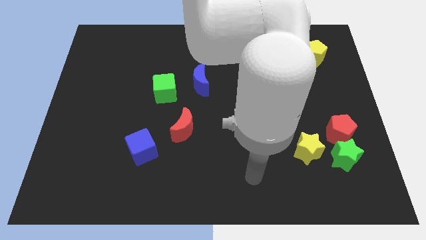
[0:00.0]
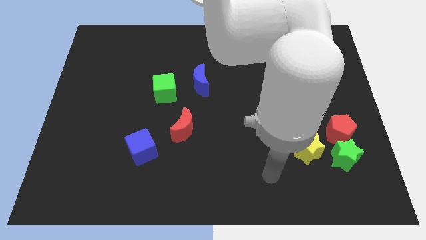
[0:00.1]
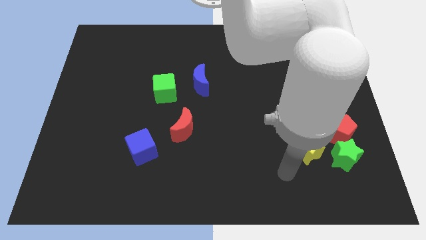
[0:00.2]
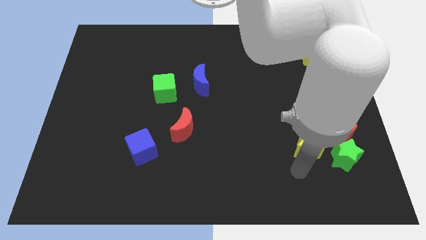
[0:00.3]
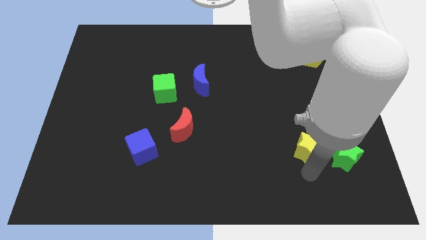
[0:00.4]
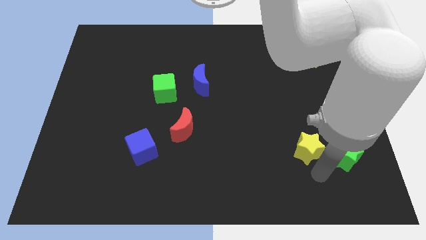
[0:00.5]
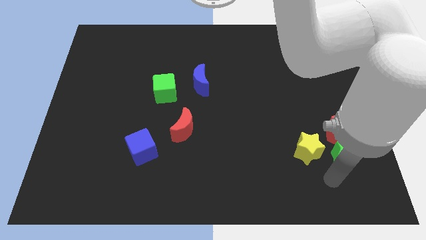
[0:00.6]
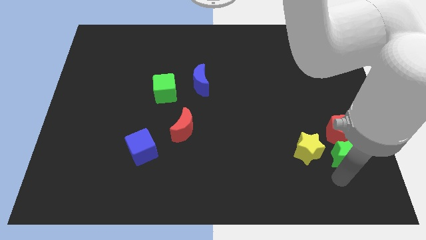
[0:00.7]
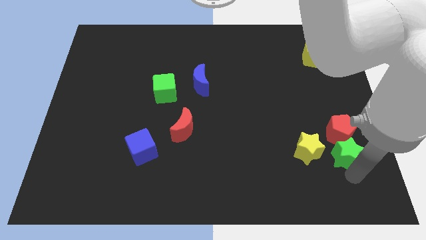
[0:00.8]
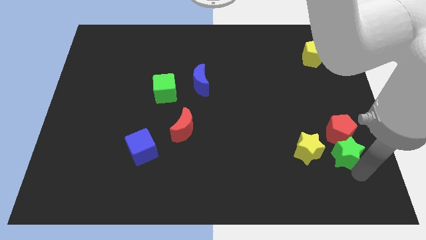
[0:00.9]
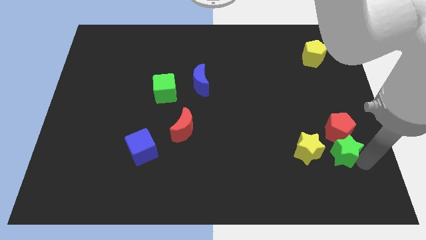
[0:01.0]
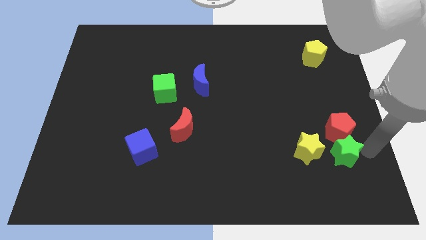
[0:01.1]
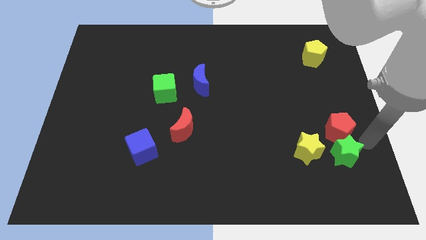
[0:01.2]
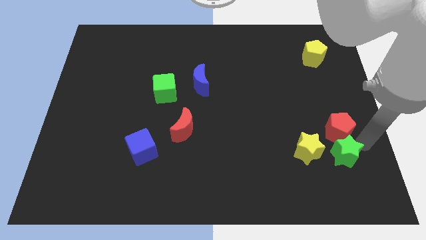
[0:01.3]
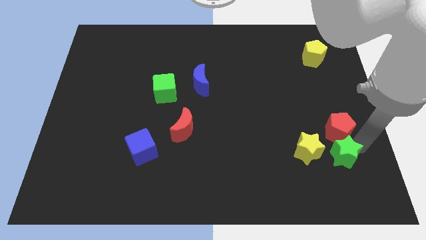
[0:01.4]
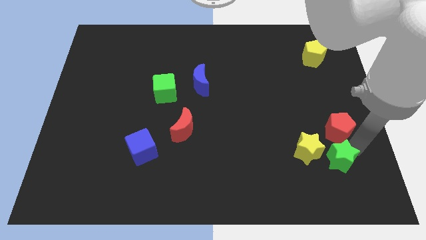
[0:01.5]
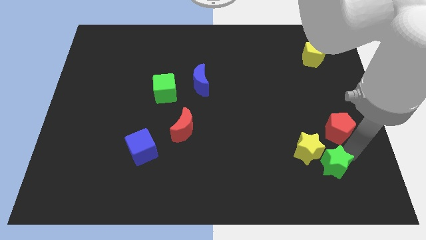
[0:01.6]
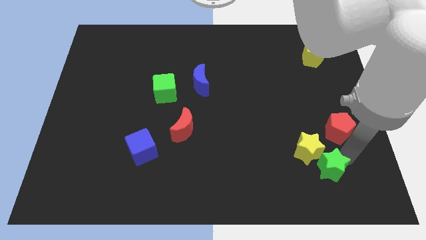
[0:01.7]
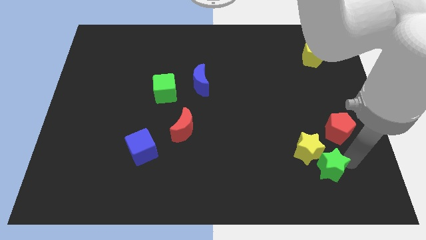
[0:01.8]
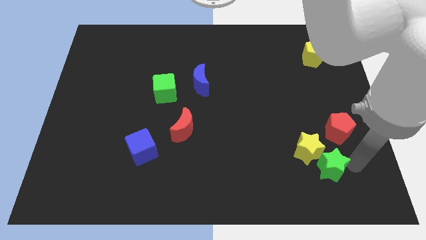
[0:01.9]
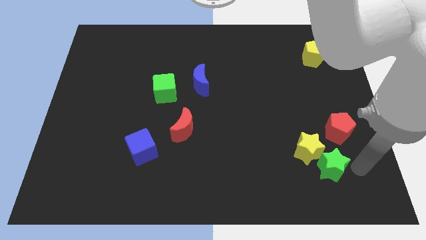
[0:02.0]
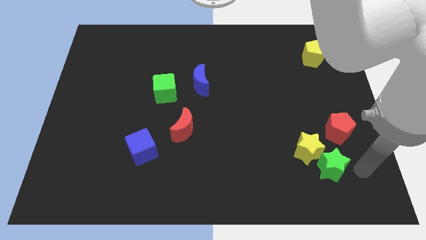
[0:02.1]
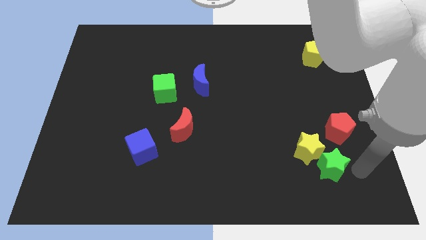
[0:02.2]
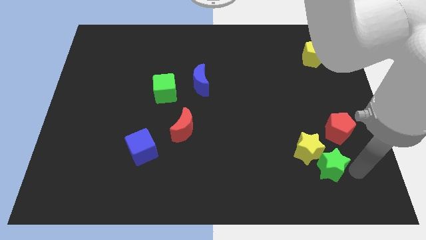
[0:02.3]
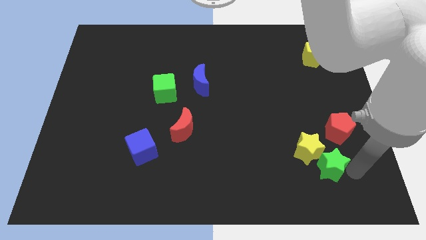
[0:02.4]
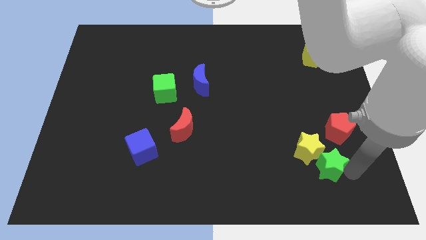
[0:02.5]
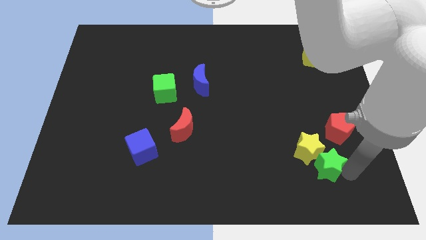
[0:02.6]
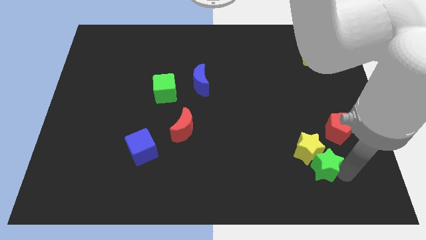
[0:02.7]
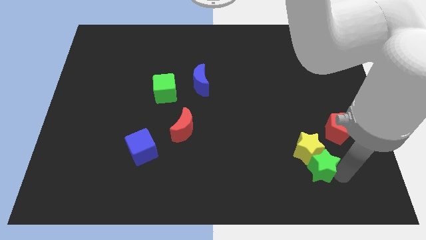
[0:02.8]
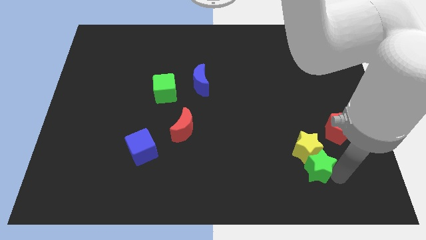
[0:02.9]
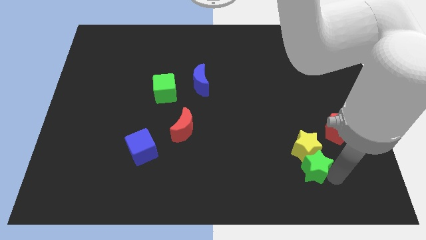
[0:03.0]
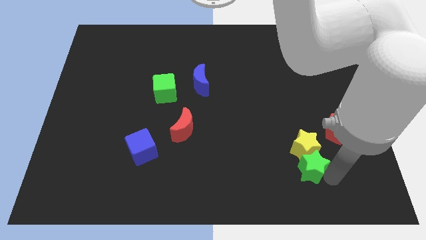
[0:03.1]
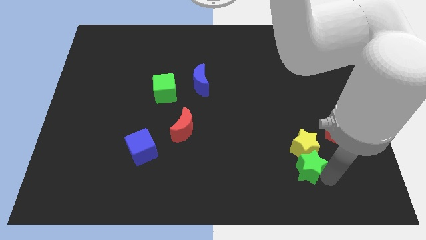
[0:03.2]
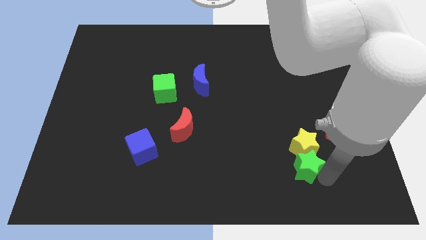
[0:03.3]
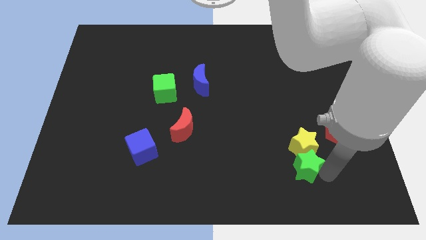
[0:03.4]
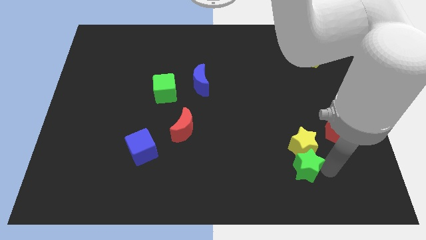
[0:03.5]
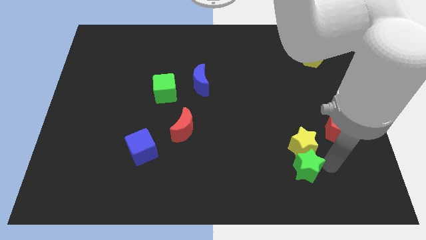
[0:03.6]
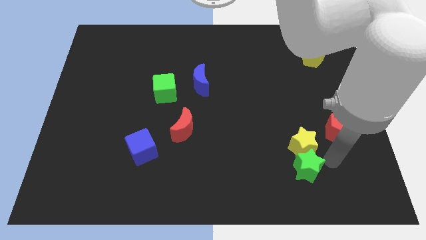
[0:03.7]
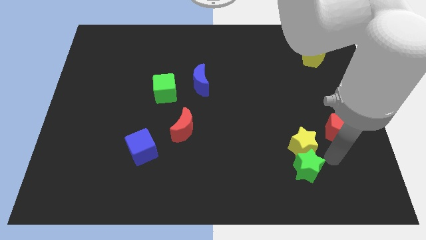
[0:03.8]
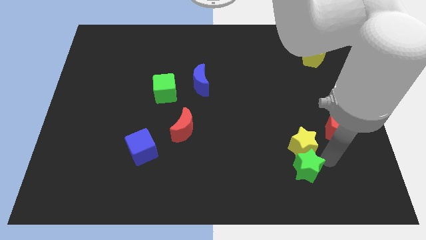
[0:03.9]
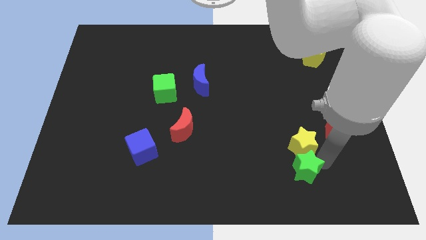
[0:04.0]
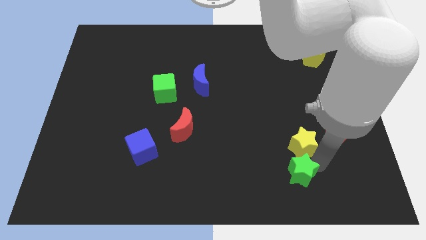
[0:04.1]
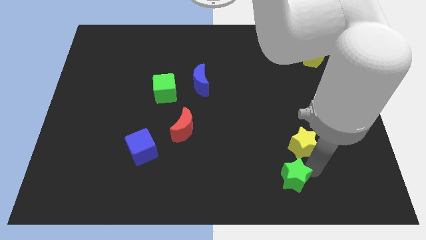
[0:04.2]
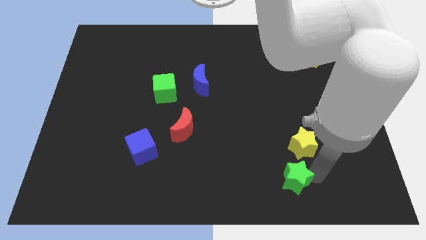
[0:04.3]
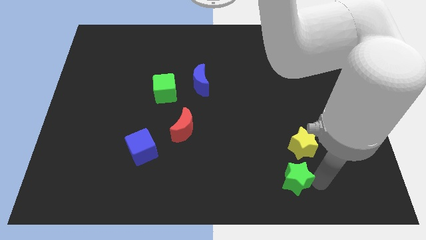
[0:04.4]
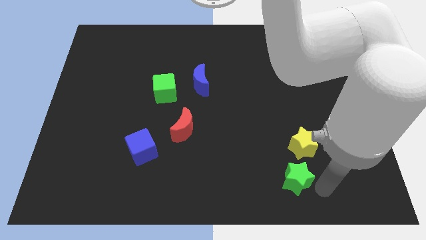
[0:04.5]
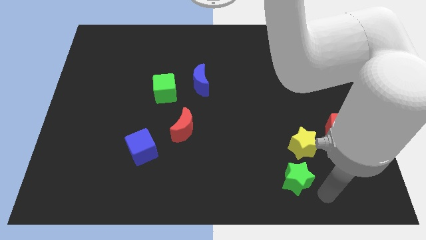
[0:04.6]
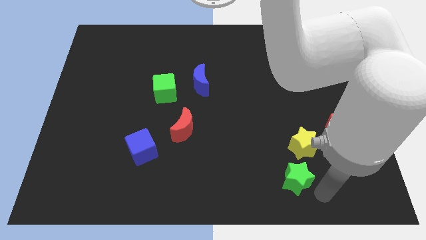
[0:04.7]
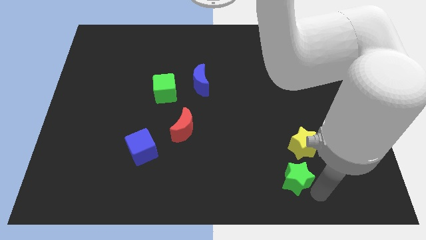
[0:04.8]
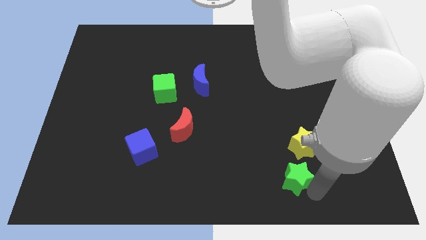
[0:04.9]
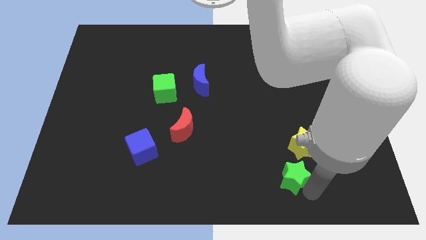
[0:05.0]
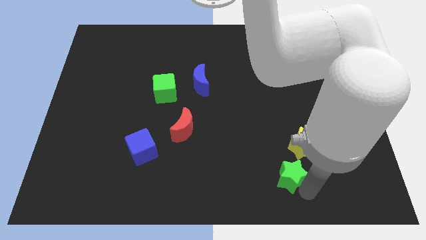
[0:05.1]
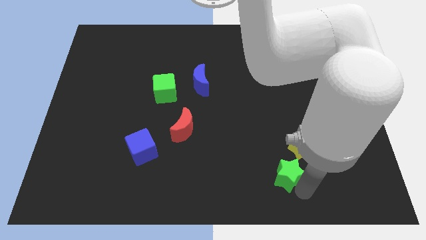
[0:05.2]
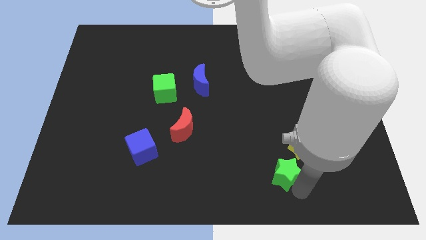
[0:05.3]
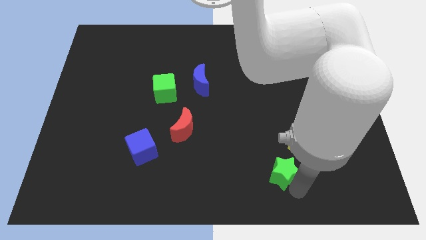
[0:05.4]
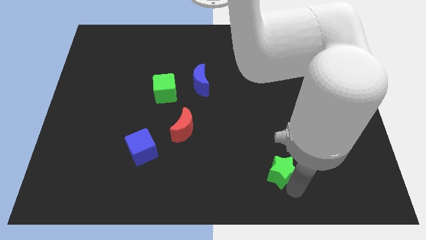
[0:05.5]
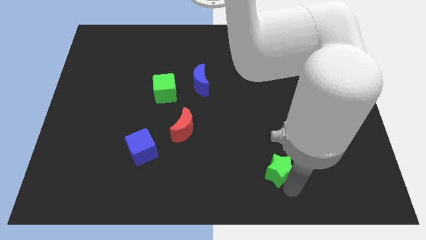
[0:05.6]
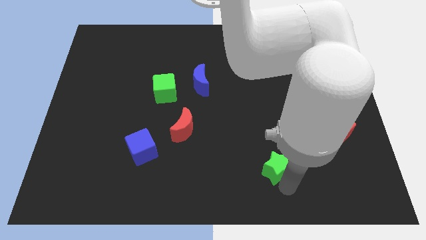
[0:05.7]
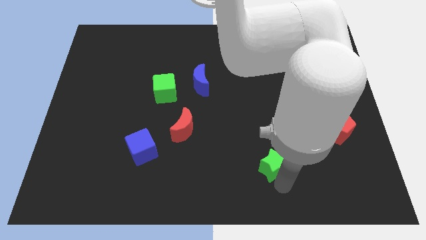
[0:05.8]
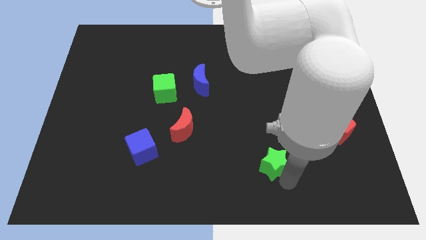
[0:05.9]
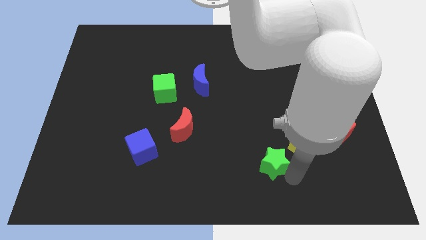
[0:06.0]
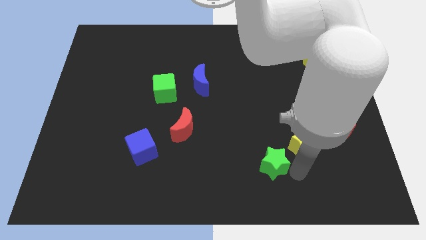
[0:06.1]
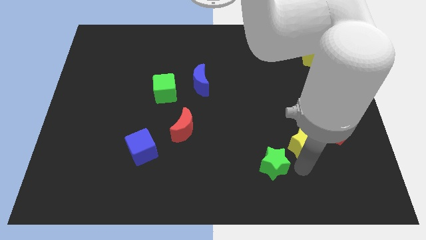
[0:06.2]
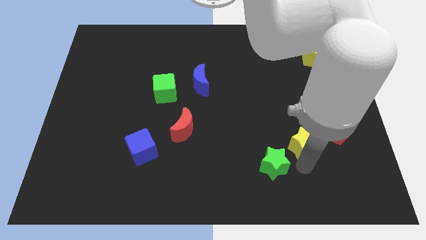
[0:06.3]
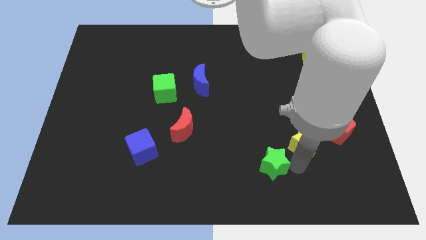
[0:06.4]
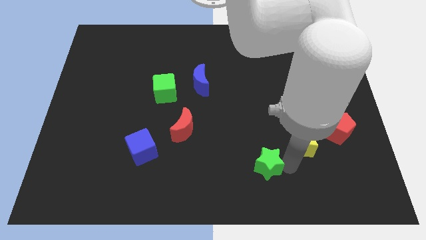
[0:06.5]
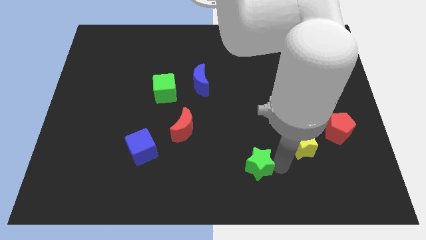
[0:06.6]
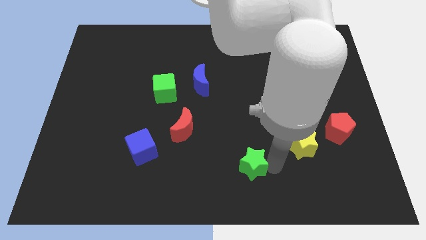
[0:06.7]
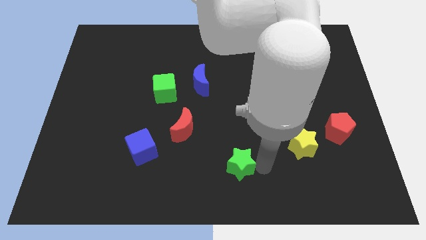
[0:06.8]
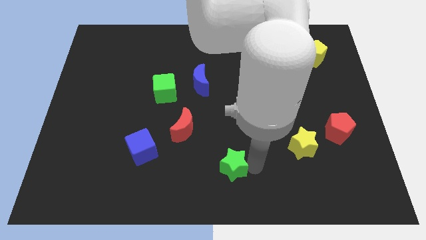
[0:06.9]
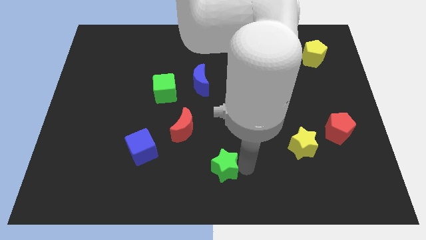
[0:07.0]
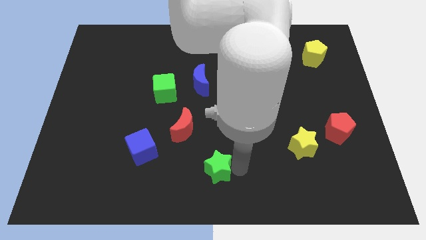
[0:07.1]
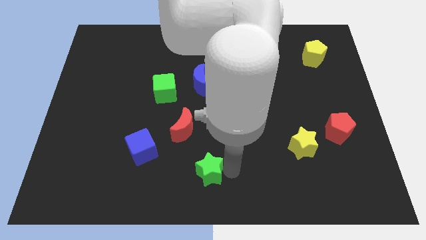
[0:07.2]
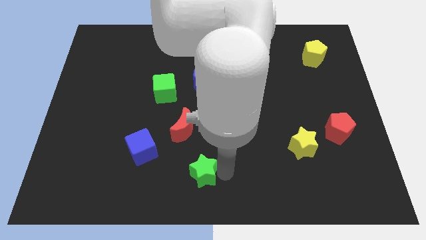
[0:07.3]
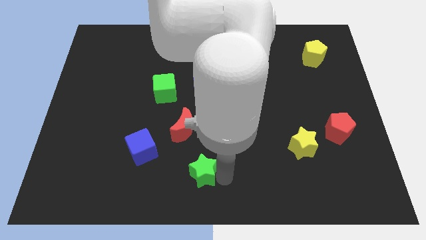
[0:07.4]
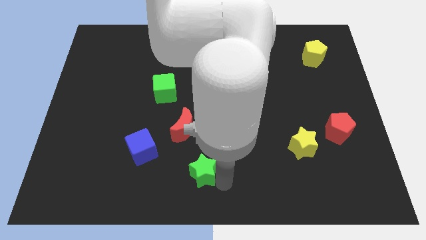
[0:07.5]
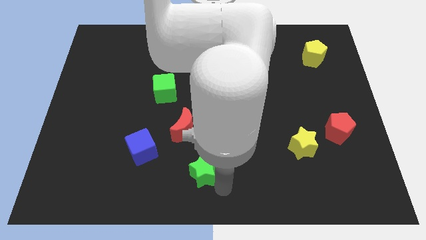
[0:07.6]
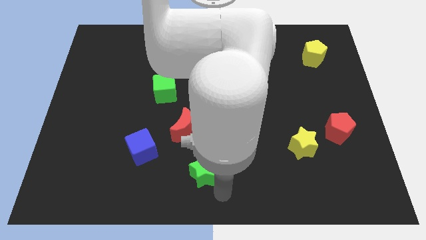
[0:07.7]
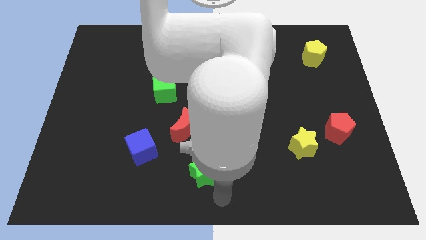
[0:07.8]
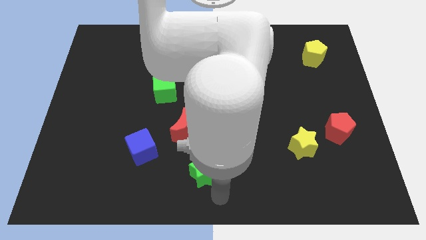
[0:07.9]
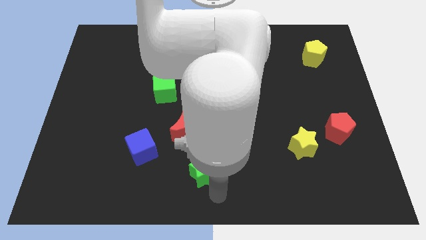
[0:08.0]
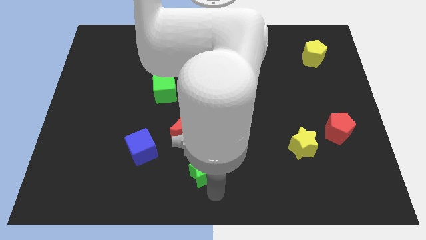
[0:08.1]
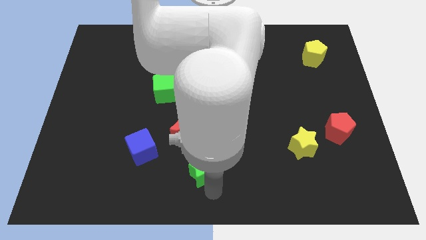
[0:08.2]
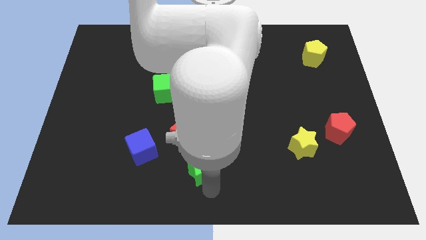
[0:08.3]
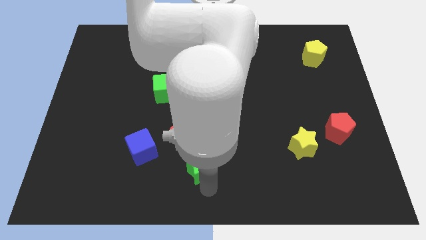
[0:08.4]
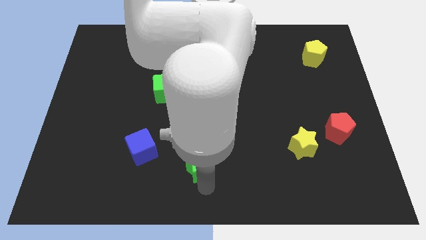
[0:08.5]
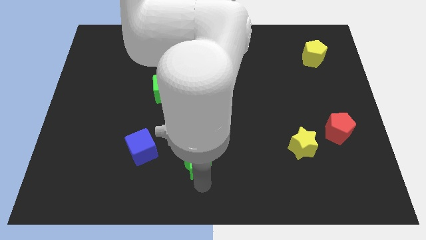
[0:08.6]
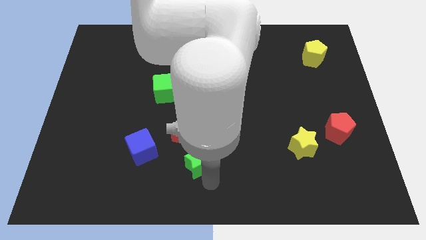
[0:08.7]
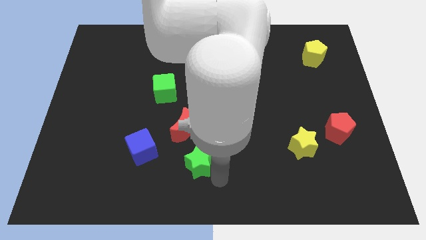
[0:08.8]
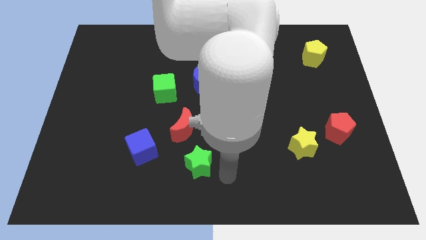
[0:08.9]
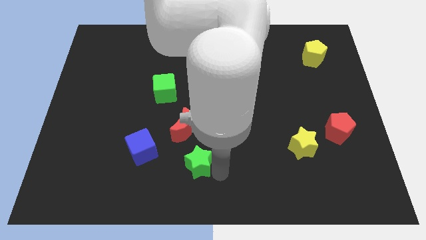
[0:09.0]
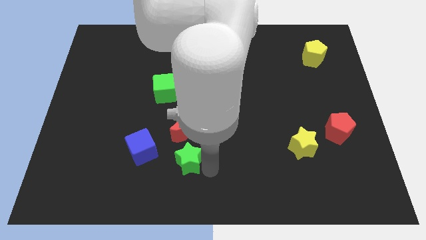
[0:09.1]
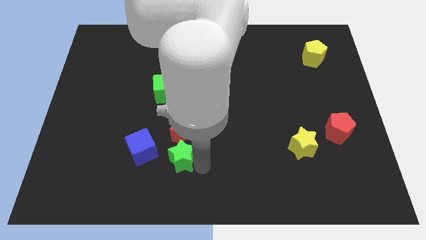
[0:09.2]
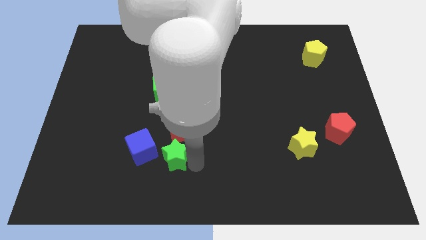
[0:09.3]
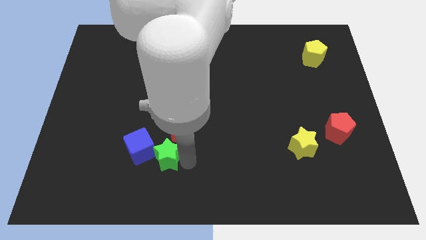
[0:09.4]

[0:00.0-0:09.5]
move the green star close to the blue cube
